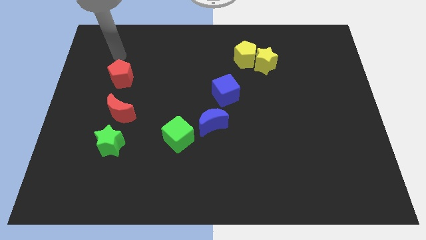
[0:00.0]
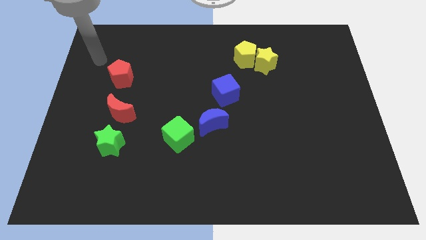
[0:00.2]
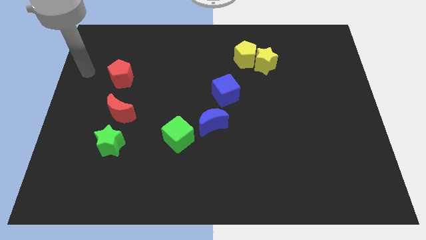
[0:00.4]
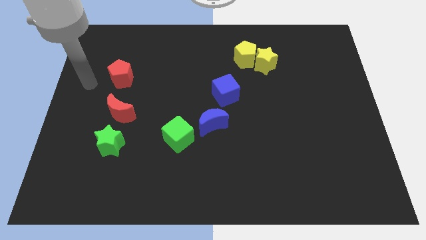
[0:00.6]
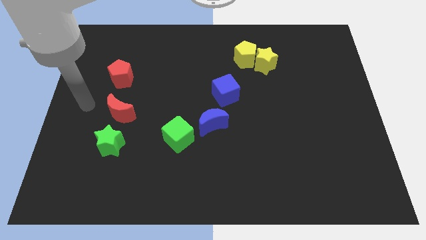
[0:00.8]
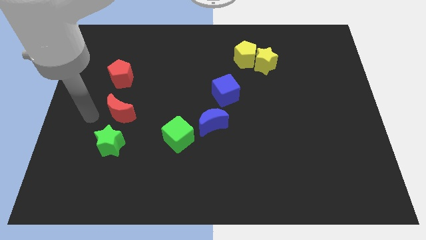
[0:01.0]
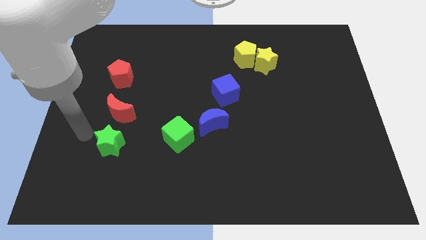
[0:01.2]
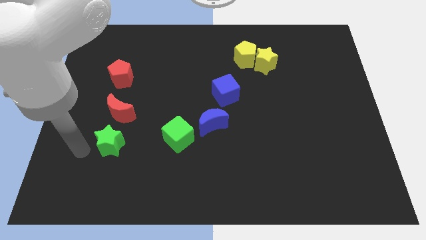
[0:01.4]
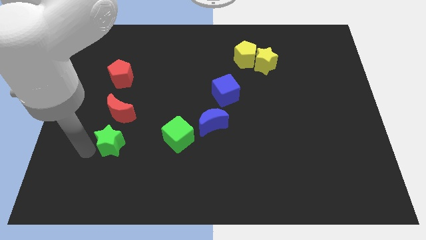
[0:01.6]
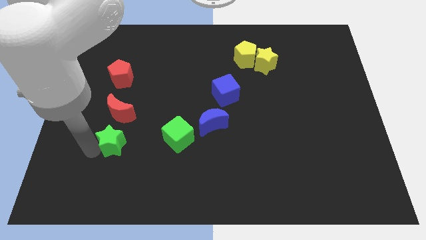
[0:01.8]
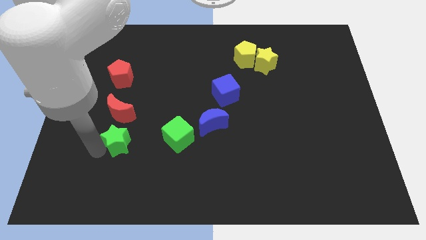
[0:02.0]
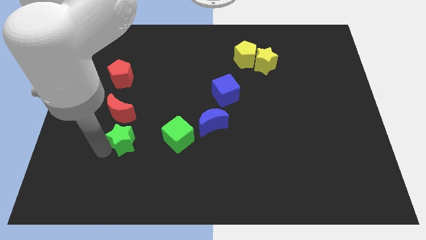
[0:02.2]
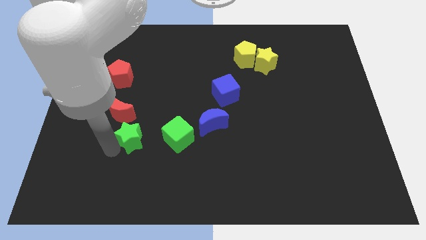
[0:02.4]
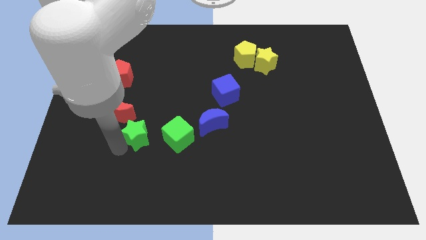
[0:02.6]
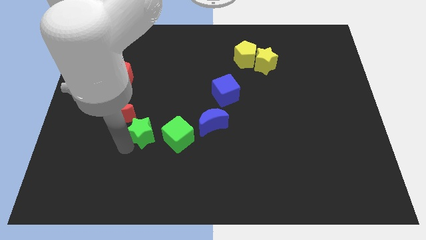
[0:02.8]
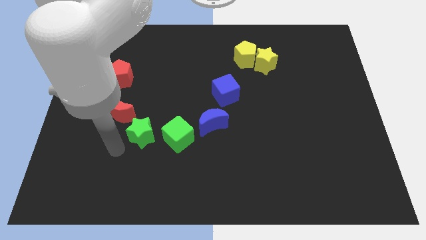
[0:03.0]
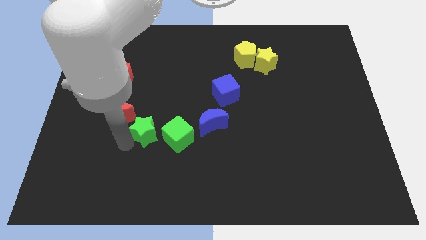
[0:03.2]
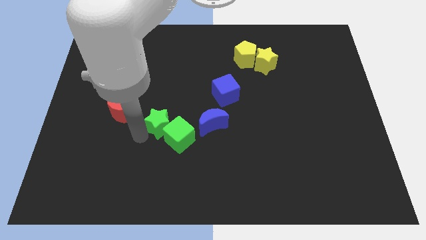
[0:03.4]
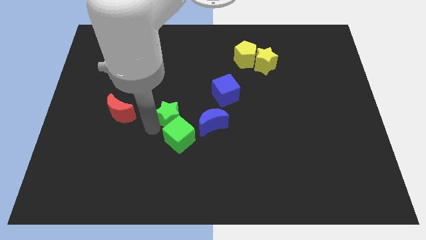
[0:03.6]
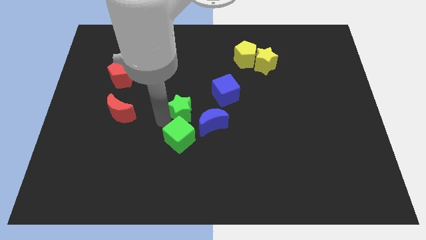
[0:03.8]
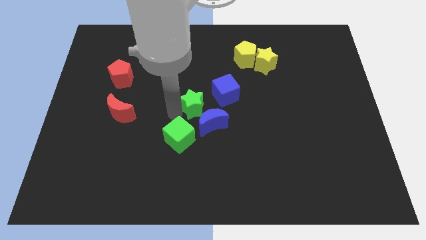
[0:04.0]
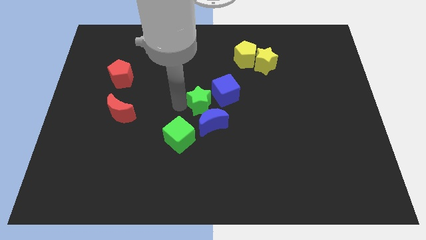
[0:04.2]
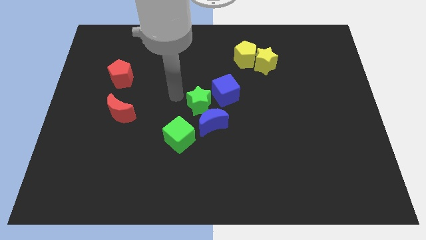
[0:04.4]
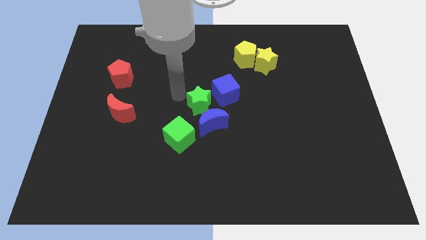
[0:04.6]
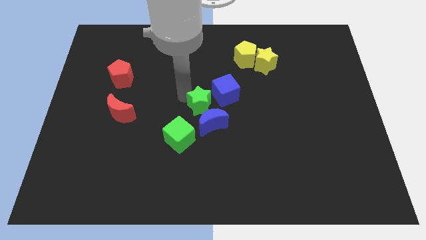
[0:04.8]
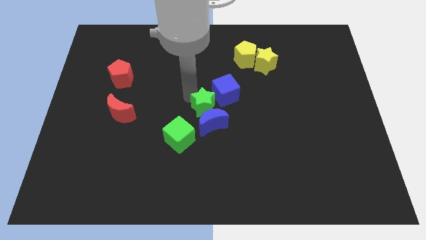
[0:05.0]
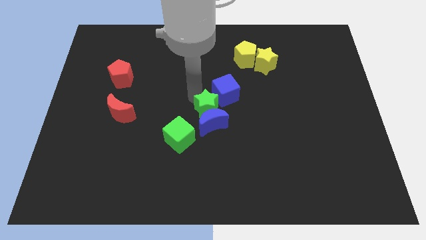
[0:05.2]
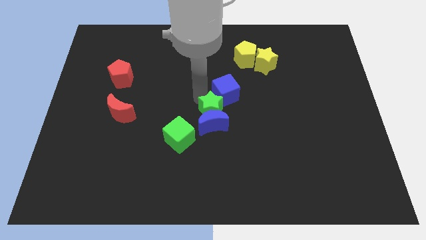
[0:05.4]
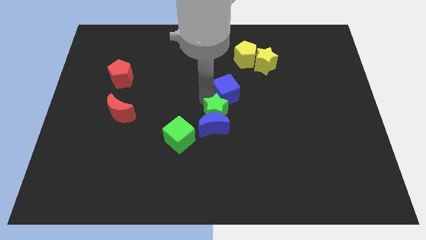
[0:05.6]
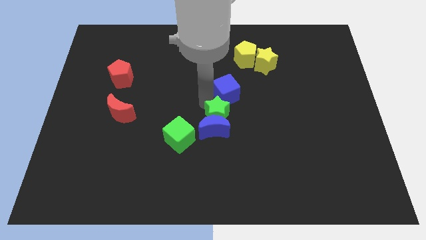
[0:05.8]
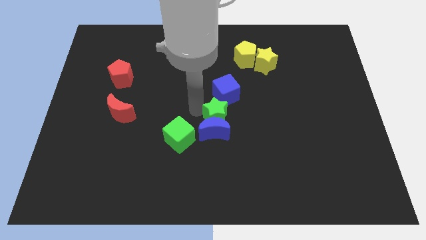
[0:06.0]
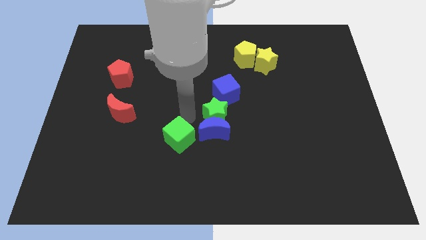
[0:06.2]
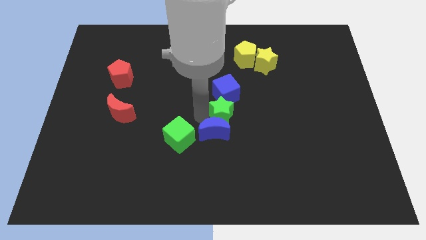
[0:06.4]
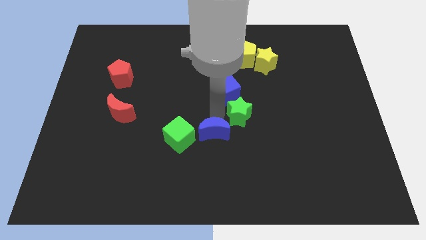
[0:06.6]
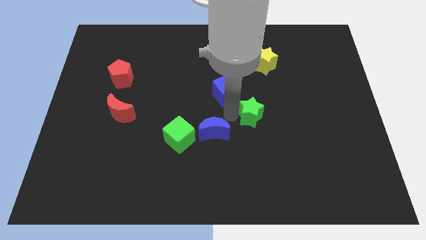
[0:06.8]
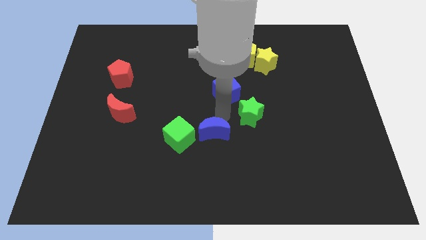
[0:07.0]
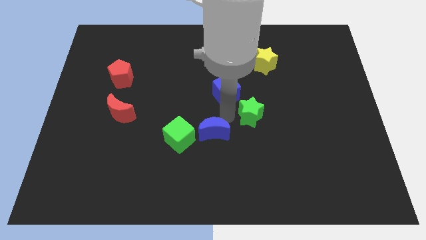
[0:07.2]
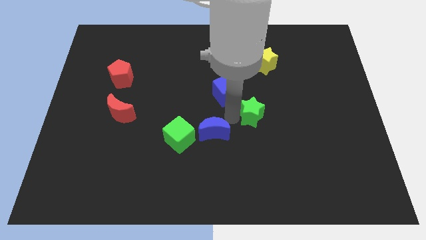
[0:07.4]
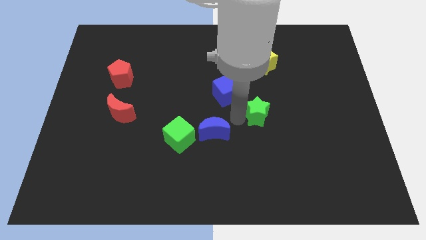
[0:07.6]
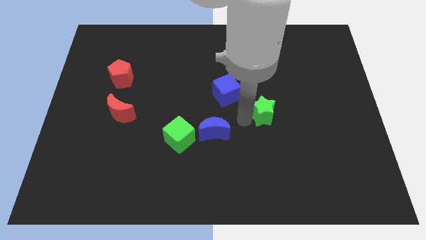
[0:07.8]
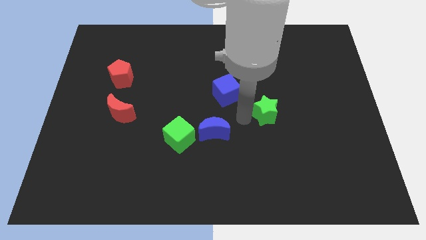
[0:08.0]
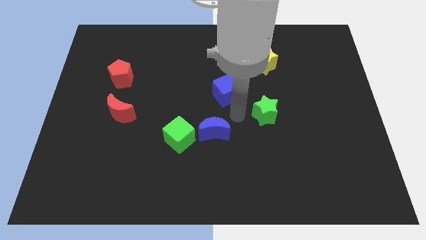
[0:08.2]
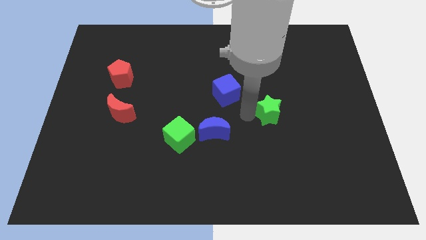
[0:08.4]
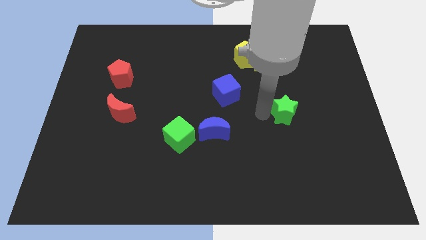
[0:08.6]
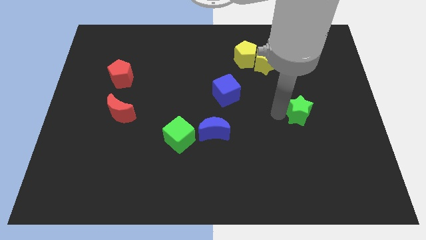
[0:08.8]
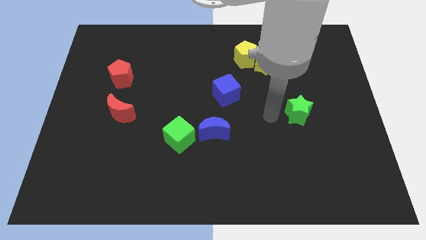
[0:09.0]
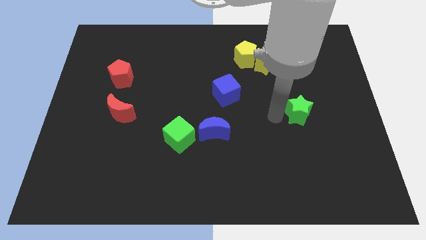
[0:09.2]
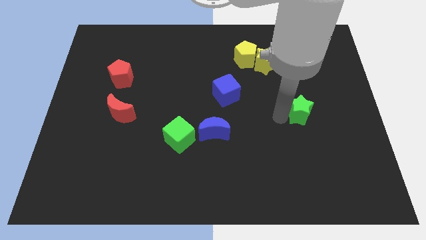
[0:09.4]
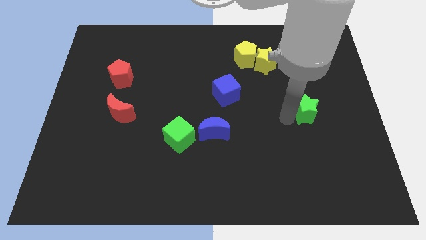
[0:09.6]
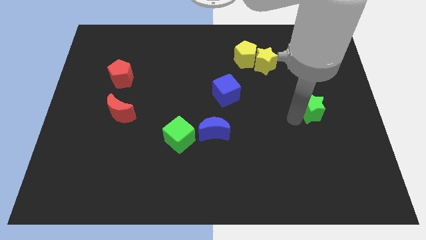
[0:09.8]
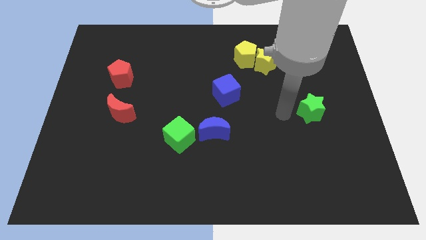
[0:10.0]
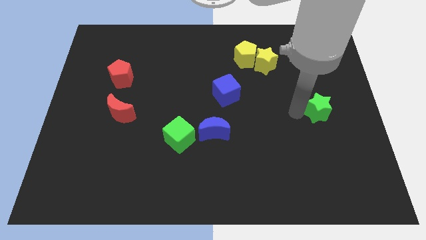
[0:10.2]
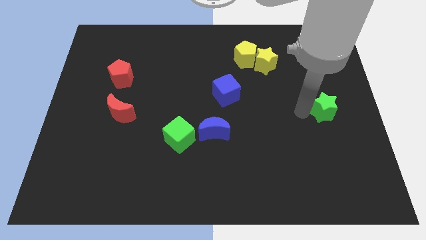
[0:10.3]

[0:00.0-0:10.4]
move the green star to the center right
